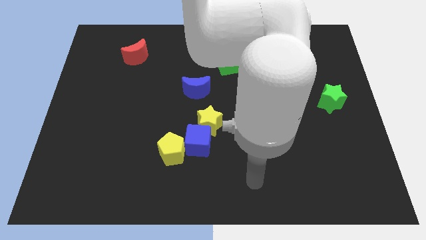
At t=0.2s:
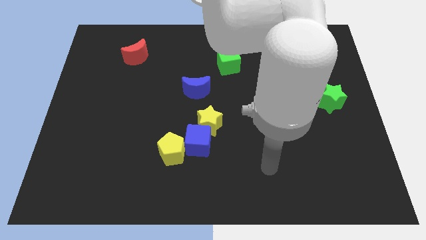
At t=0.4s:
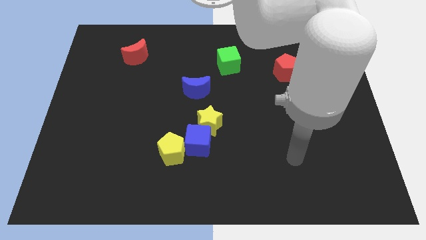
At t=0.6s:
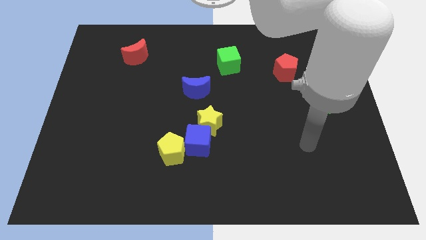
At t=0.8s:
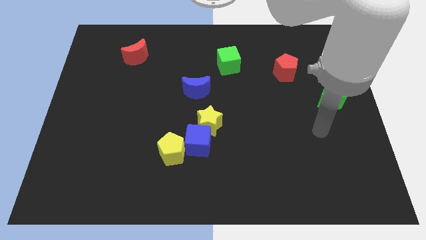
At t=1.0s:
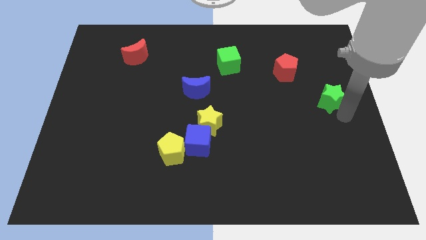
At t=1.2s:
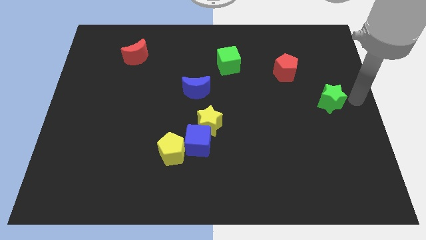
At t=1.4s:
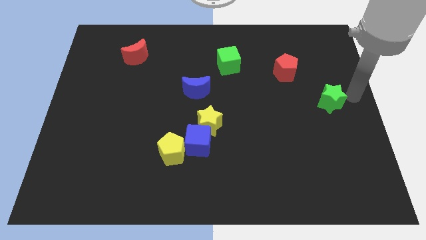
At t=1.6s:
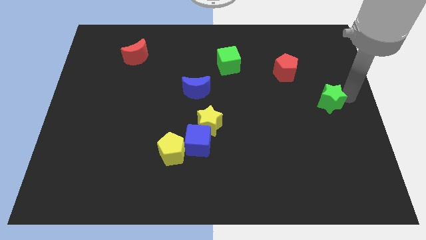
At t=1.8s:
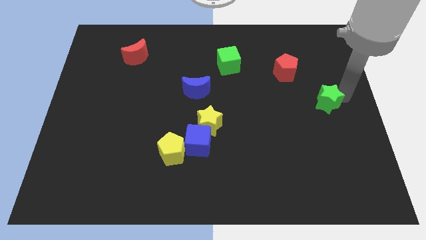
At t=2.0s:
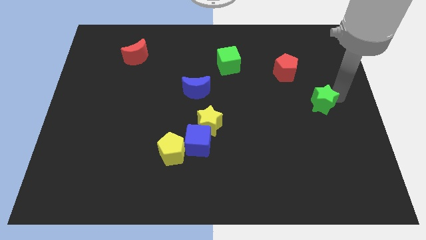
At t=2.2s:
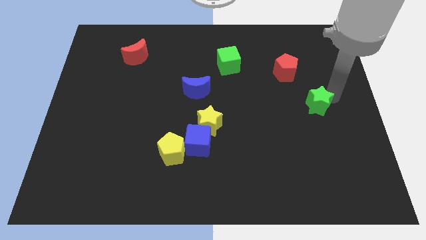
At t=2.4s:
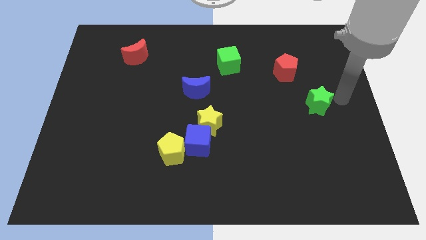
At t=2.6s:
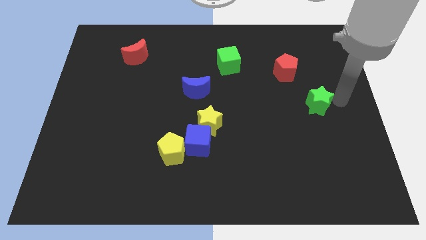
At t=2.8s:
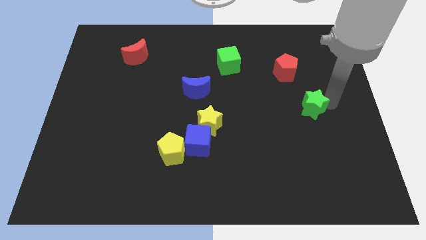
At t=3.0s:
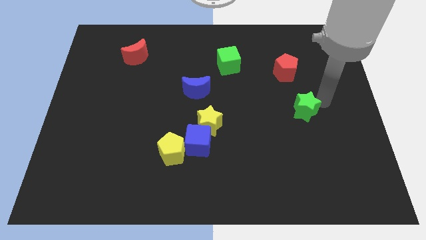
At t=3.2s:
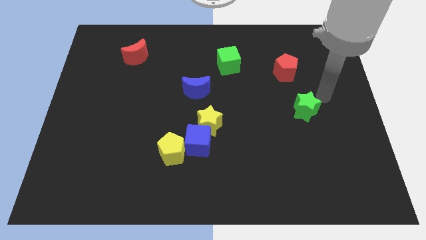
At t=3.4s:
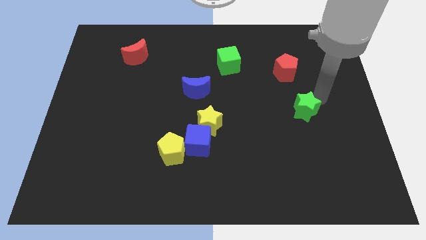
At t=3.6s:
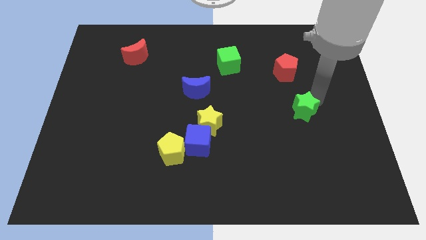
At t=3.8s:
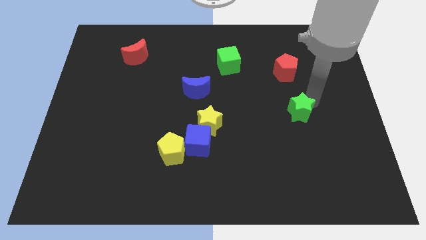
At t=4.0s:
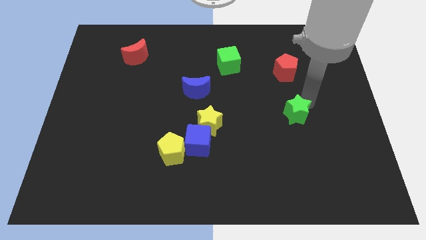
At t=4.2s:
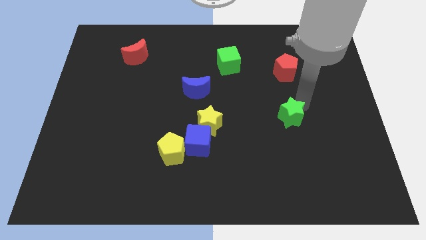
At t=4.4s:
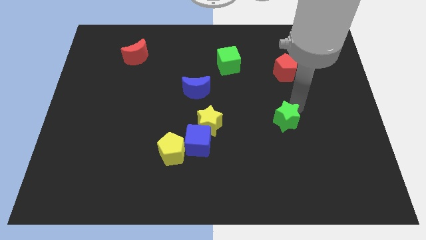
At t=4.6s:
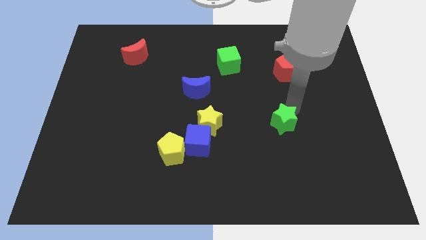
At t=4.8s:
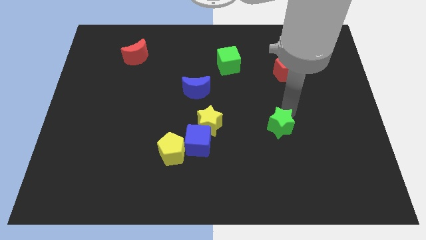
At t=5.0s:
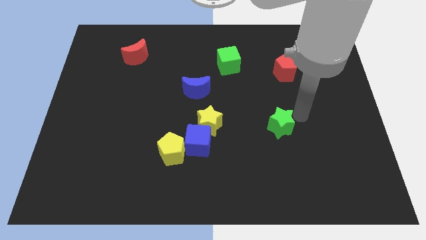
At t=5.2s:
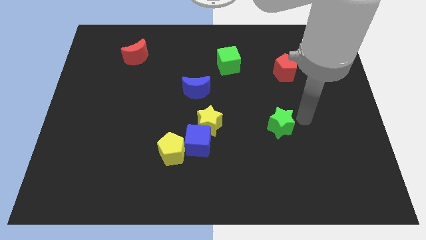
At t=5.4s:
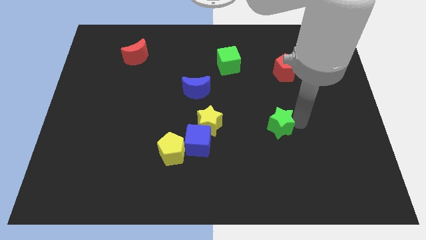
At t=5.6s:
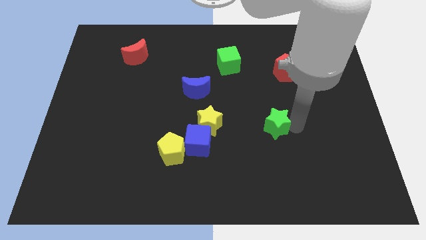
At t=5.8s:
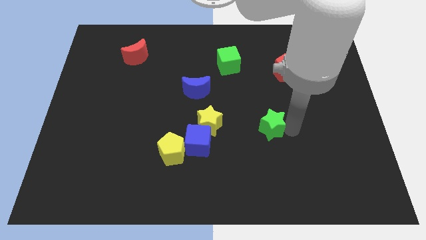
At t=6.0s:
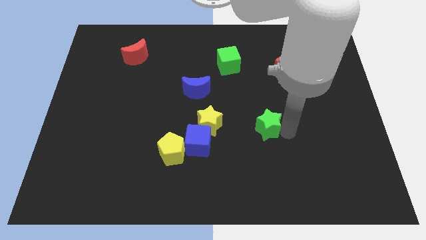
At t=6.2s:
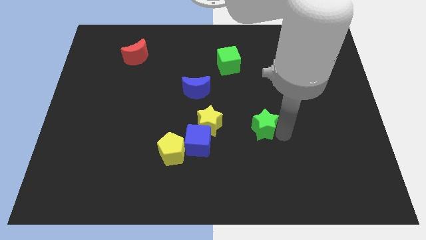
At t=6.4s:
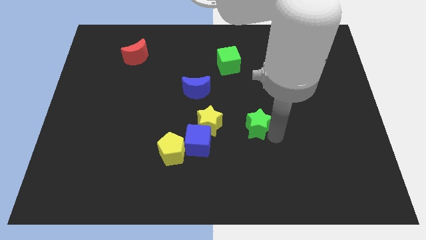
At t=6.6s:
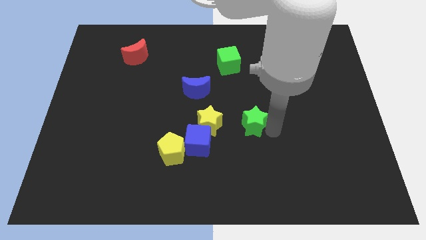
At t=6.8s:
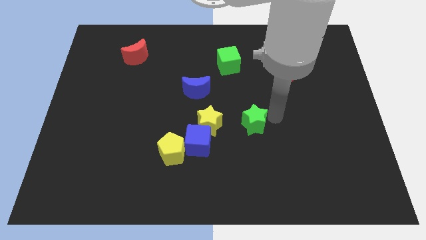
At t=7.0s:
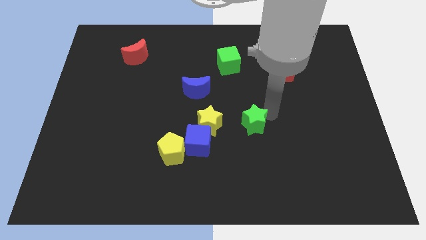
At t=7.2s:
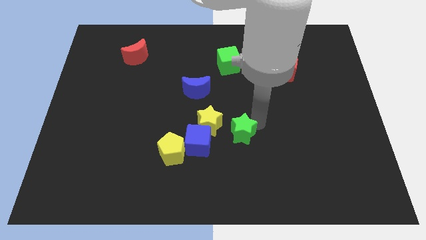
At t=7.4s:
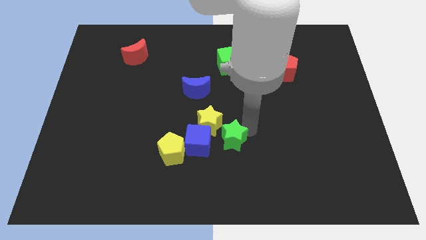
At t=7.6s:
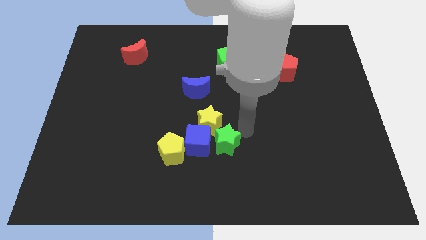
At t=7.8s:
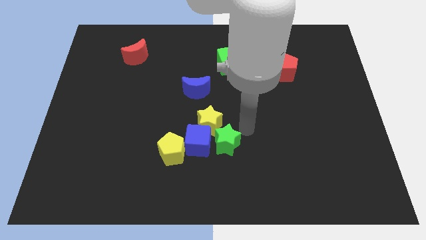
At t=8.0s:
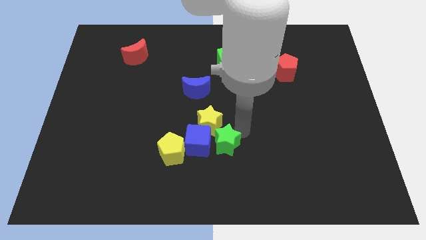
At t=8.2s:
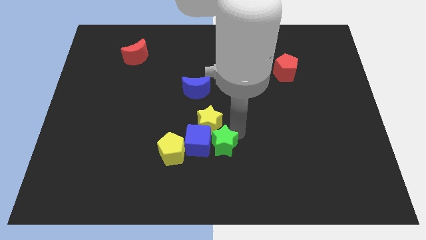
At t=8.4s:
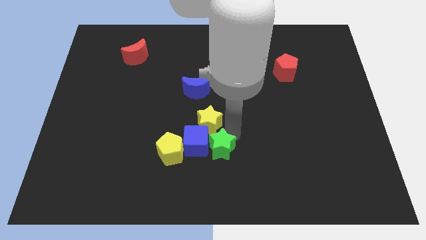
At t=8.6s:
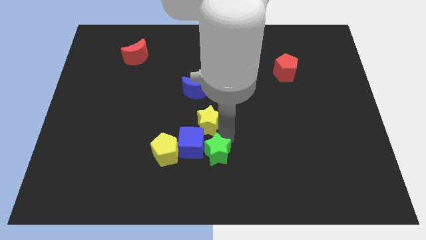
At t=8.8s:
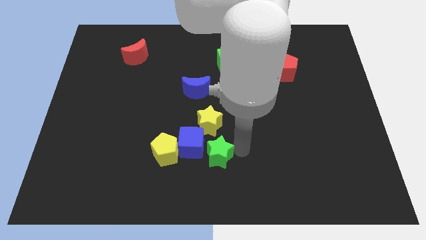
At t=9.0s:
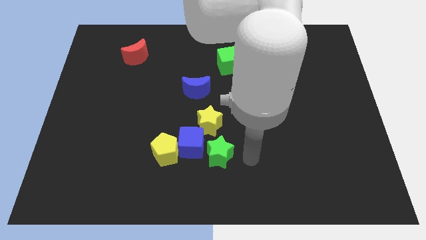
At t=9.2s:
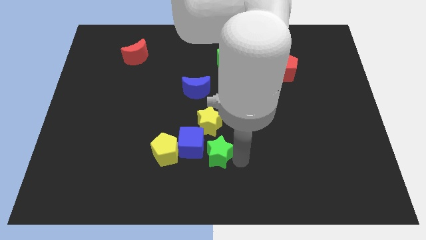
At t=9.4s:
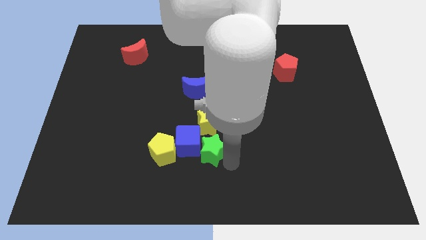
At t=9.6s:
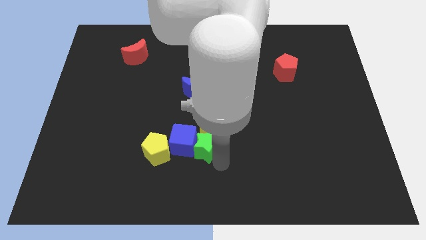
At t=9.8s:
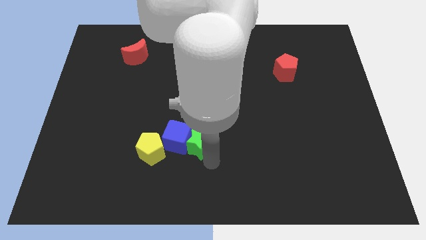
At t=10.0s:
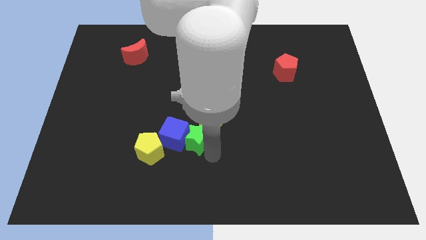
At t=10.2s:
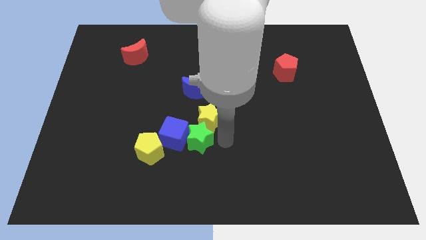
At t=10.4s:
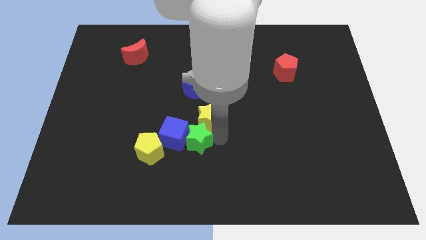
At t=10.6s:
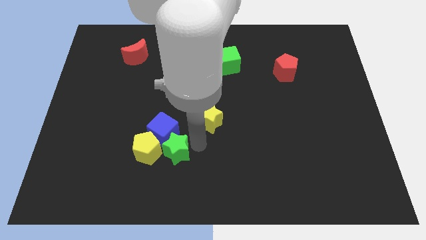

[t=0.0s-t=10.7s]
push the green star towards the yellow pentagon

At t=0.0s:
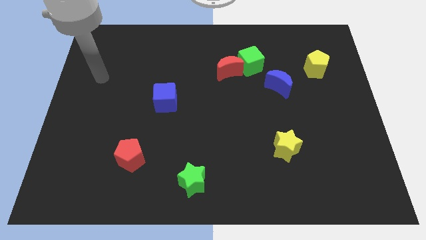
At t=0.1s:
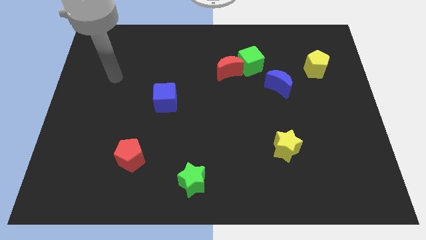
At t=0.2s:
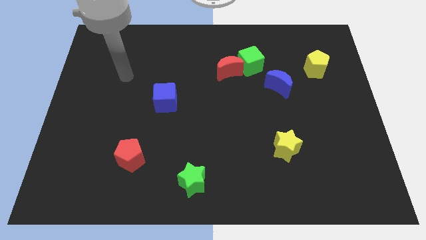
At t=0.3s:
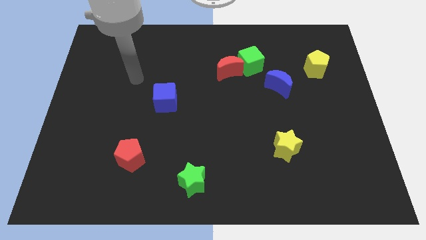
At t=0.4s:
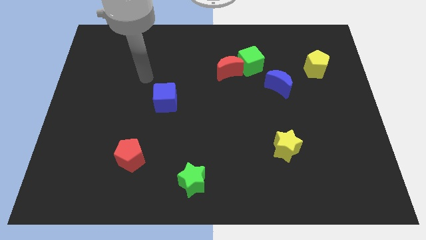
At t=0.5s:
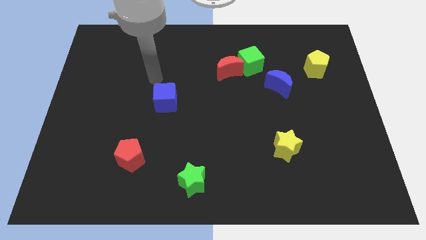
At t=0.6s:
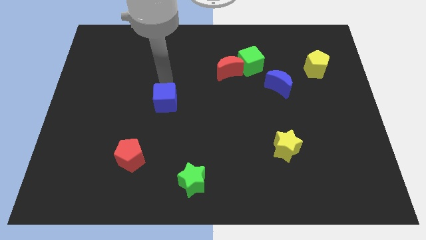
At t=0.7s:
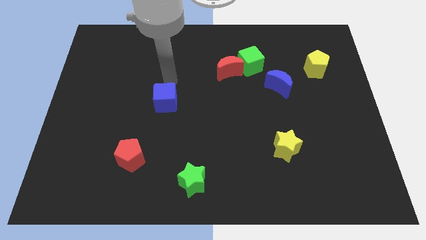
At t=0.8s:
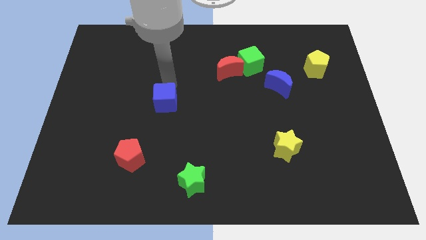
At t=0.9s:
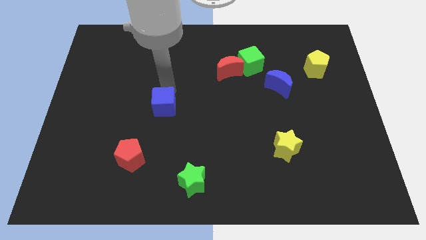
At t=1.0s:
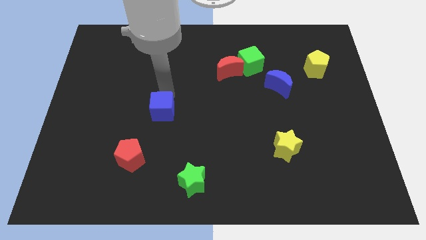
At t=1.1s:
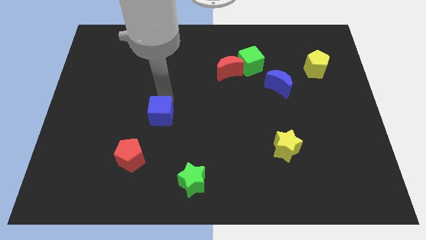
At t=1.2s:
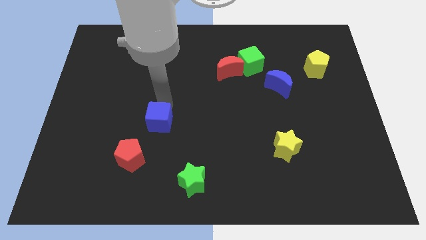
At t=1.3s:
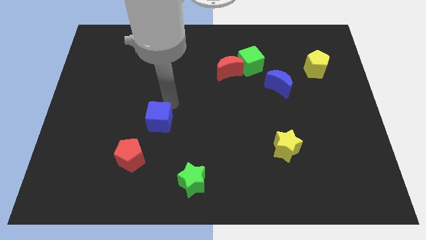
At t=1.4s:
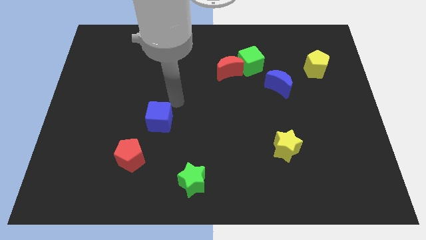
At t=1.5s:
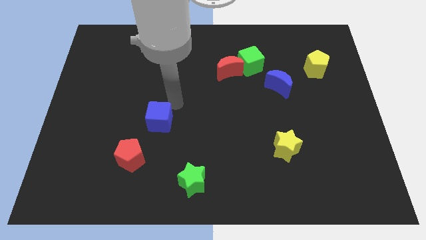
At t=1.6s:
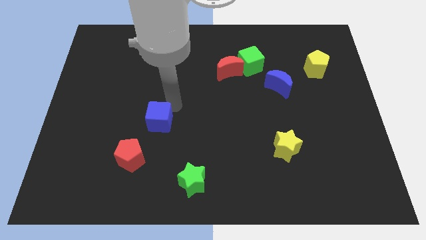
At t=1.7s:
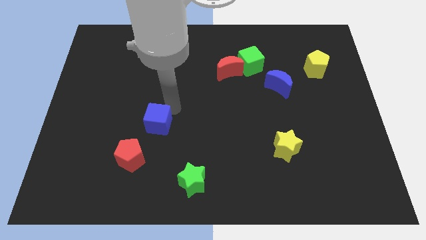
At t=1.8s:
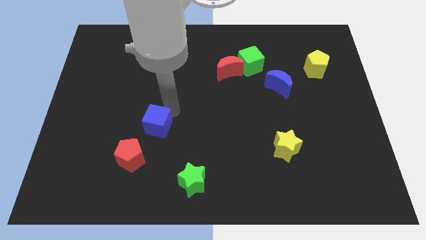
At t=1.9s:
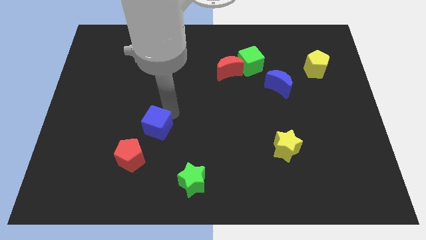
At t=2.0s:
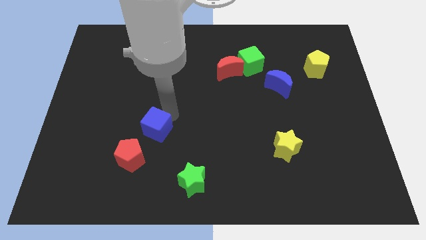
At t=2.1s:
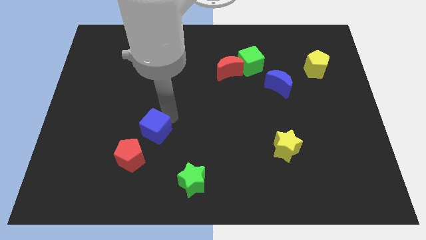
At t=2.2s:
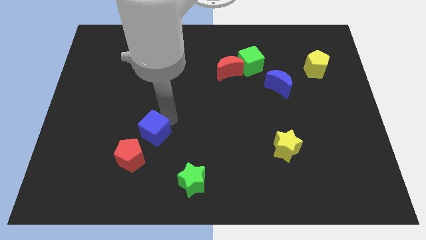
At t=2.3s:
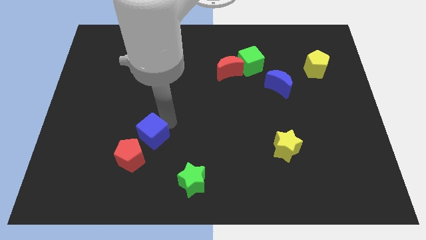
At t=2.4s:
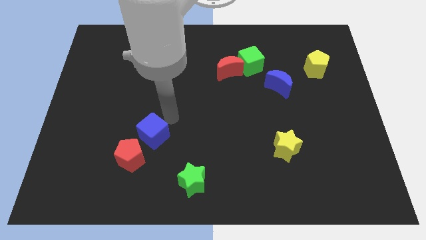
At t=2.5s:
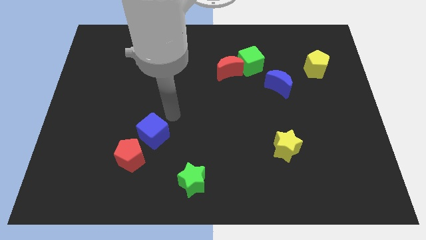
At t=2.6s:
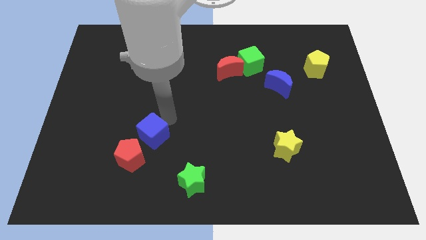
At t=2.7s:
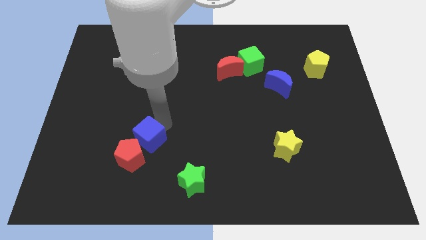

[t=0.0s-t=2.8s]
put the blue cube to the red pentagon
